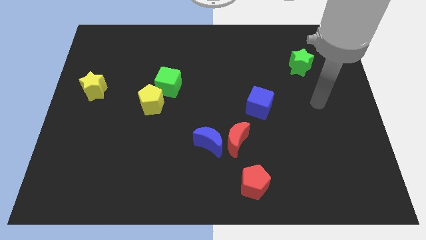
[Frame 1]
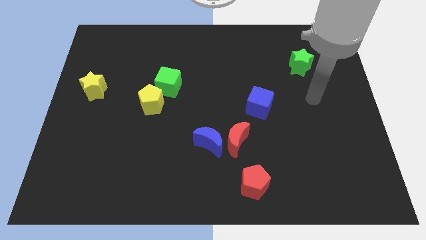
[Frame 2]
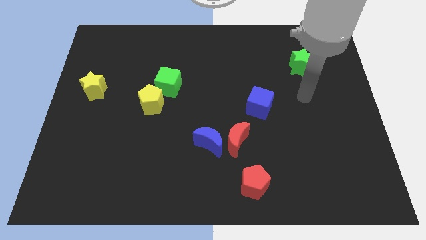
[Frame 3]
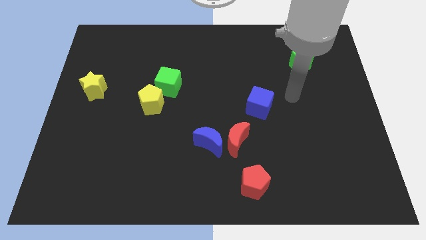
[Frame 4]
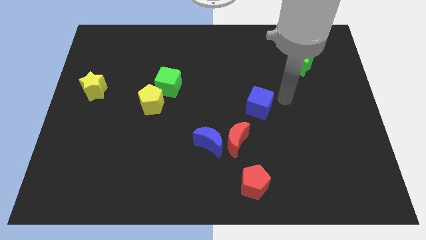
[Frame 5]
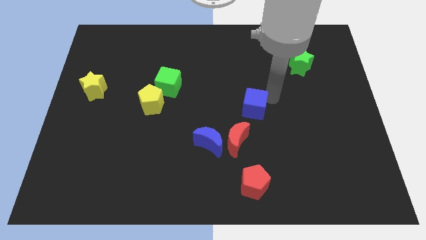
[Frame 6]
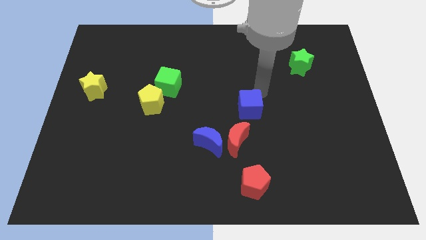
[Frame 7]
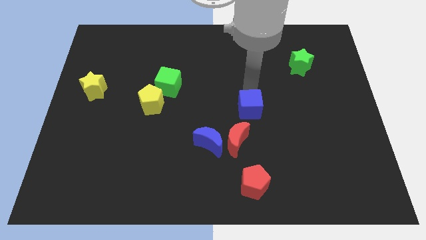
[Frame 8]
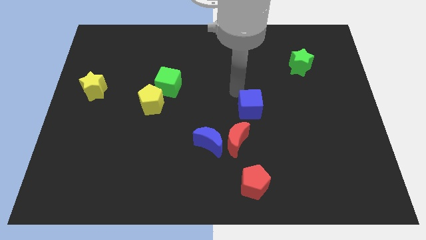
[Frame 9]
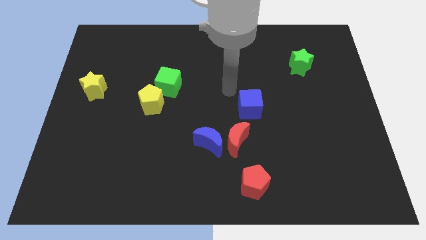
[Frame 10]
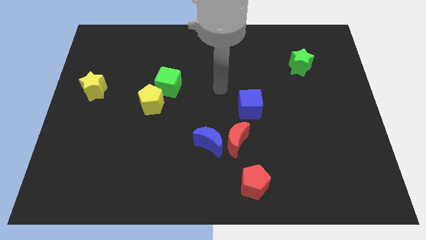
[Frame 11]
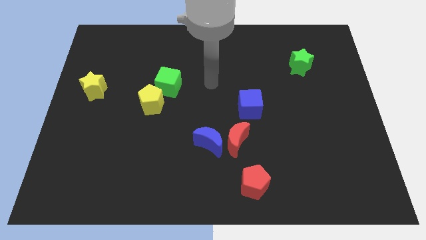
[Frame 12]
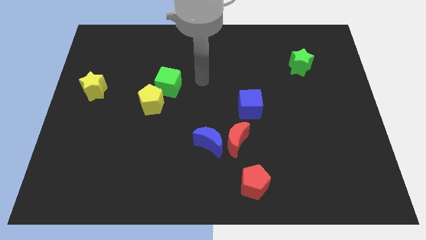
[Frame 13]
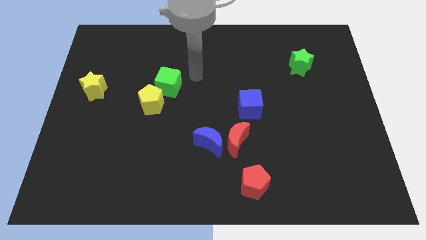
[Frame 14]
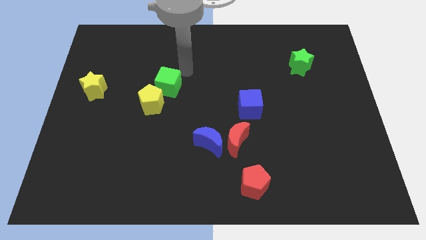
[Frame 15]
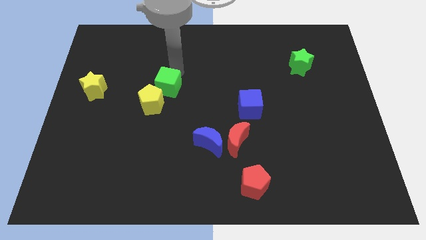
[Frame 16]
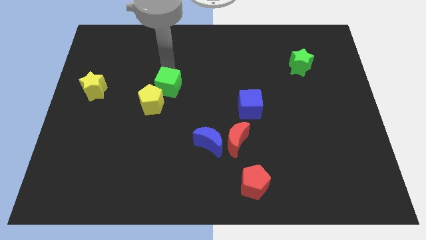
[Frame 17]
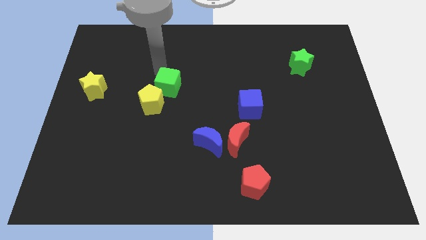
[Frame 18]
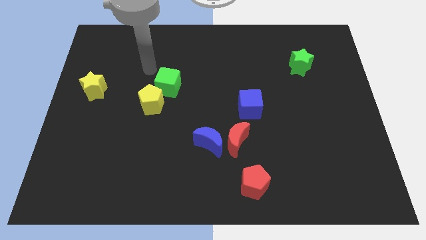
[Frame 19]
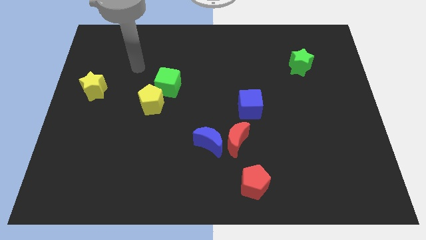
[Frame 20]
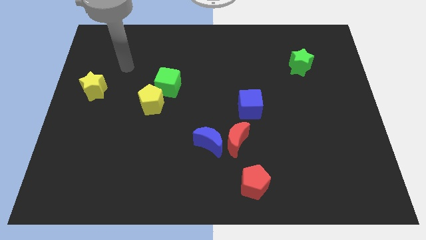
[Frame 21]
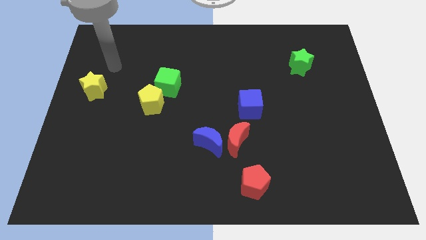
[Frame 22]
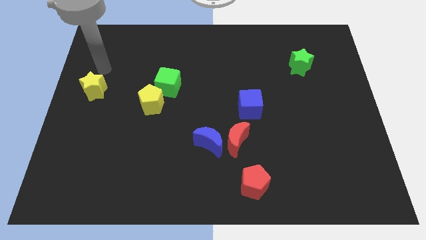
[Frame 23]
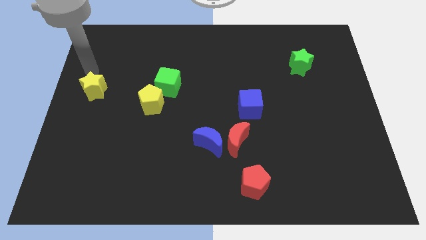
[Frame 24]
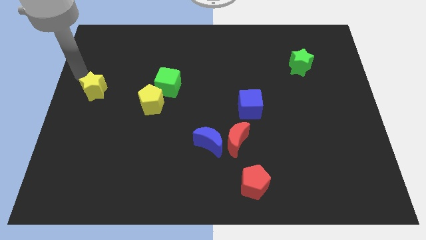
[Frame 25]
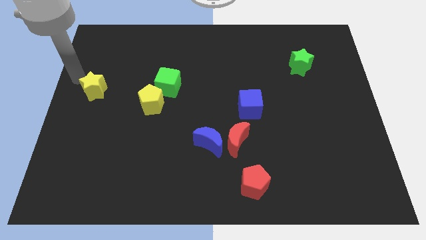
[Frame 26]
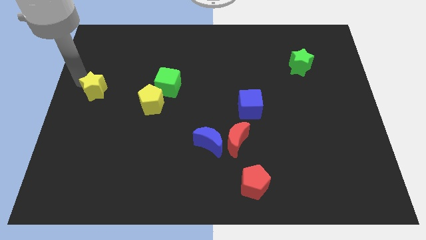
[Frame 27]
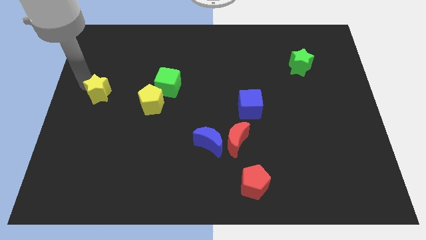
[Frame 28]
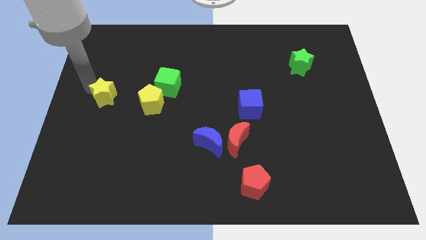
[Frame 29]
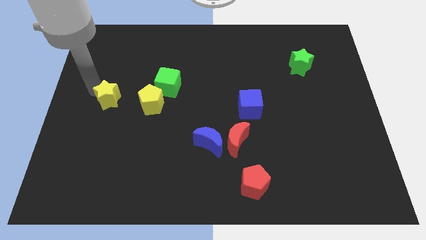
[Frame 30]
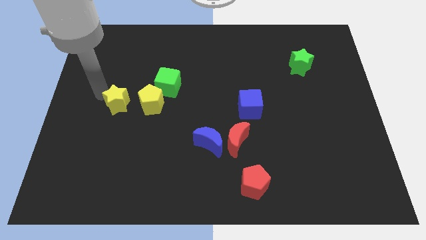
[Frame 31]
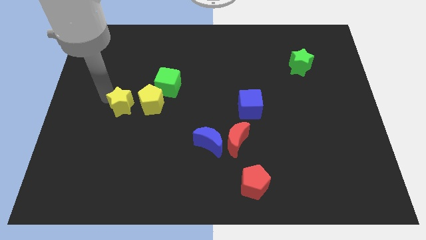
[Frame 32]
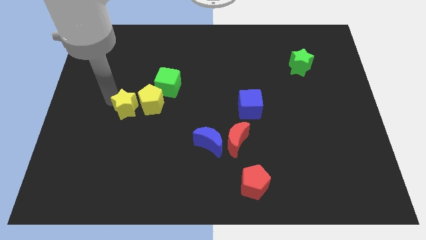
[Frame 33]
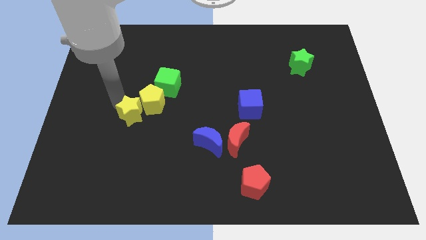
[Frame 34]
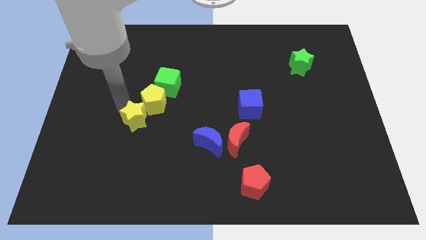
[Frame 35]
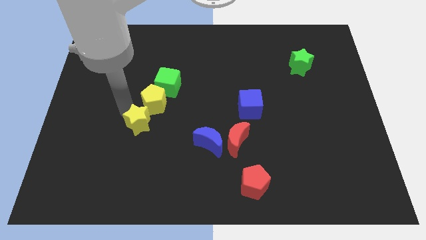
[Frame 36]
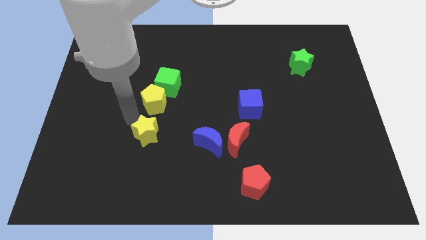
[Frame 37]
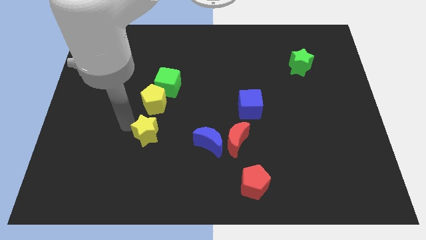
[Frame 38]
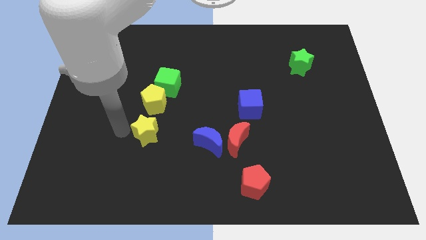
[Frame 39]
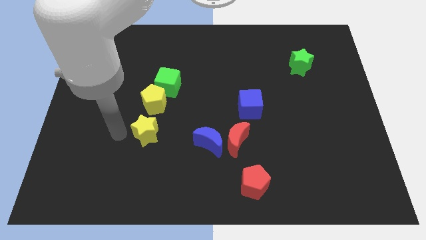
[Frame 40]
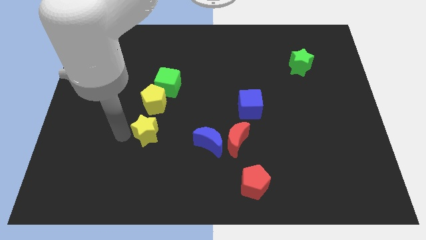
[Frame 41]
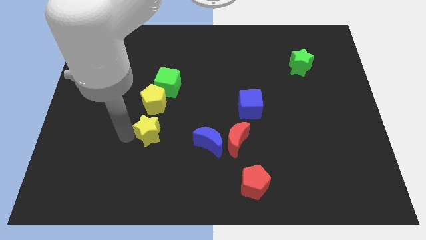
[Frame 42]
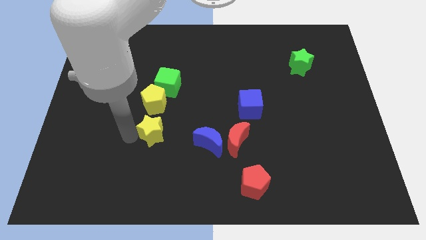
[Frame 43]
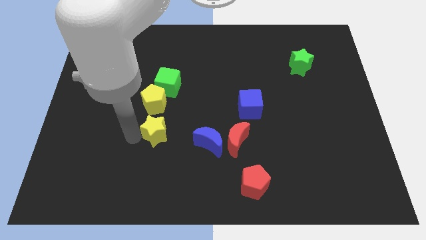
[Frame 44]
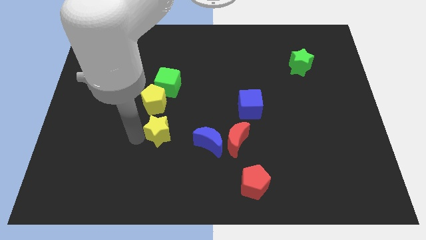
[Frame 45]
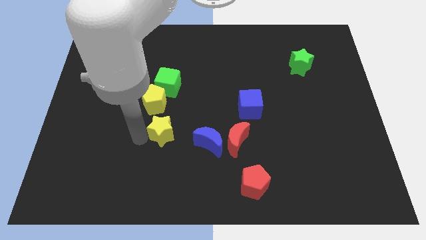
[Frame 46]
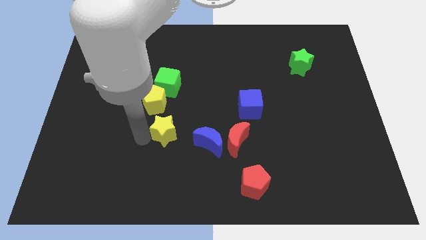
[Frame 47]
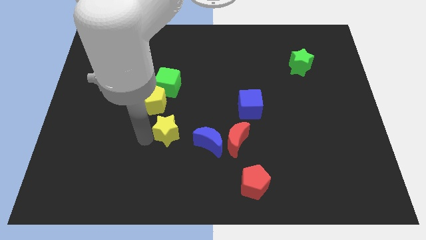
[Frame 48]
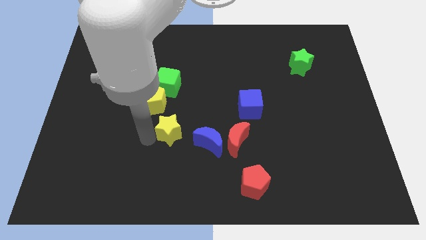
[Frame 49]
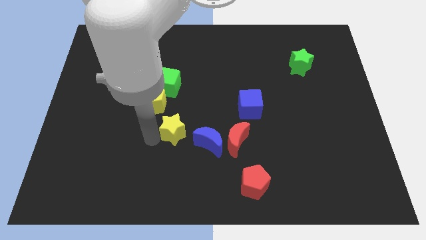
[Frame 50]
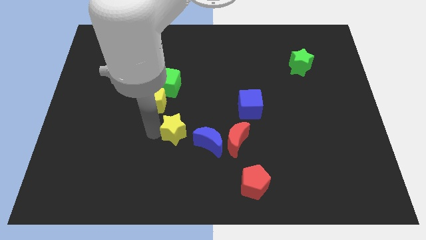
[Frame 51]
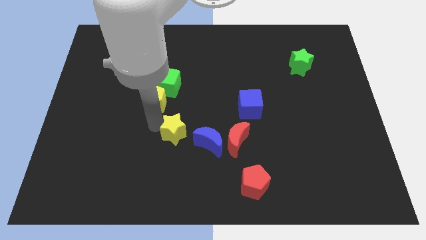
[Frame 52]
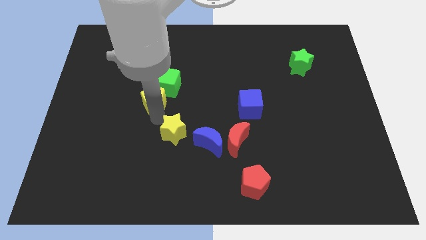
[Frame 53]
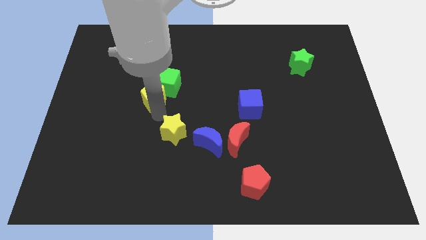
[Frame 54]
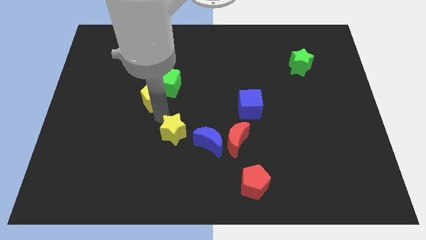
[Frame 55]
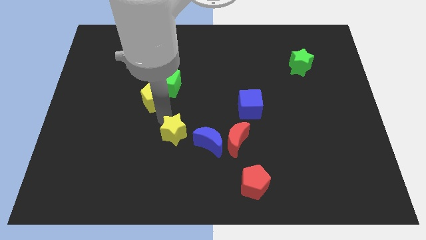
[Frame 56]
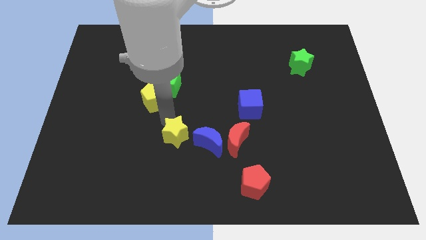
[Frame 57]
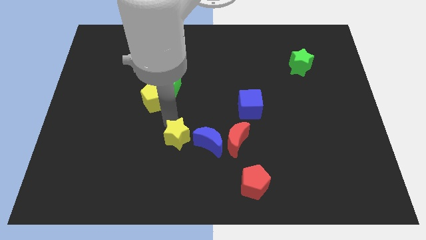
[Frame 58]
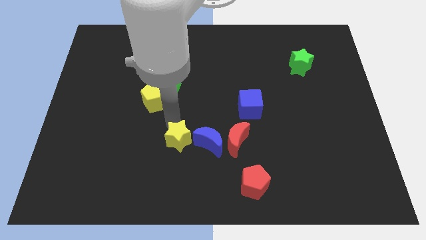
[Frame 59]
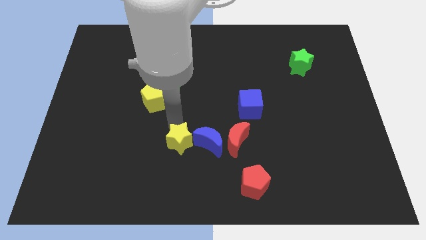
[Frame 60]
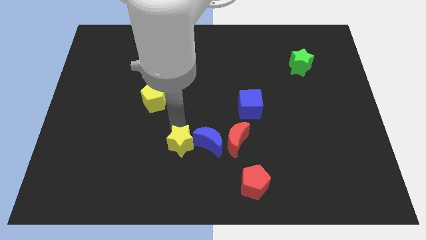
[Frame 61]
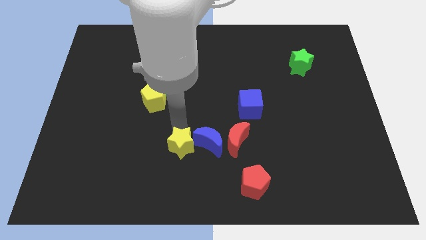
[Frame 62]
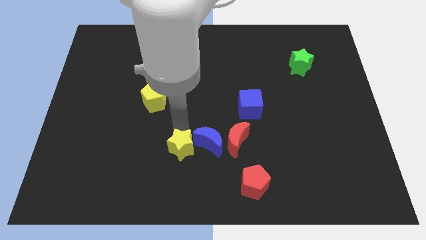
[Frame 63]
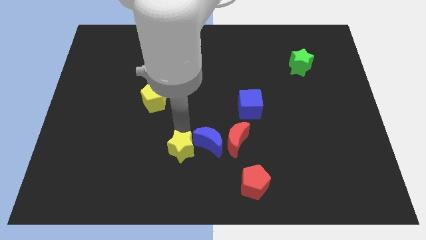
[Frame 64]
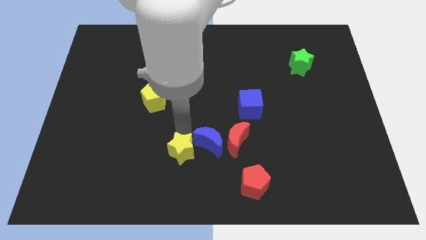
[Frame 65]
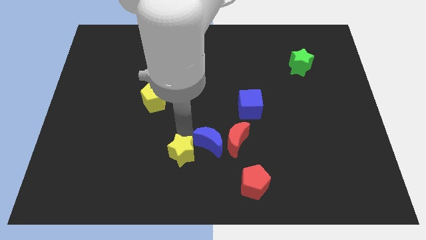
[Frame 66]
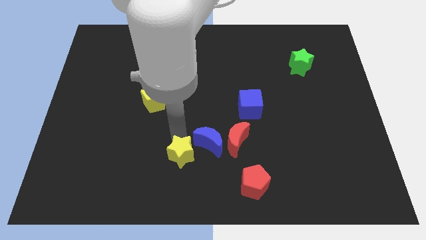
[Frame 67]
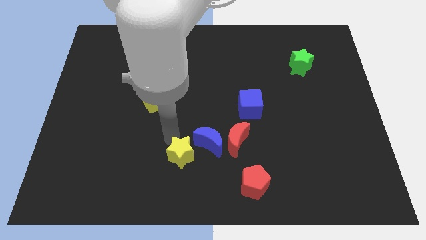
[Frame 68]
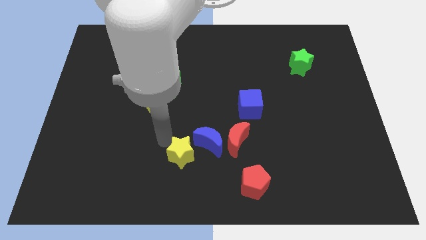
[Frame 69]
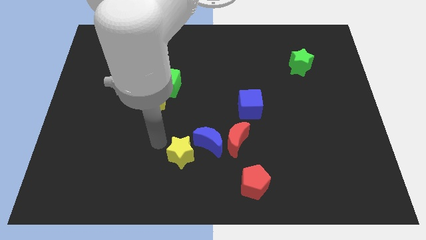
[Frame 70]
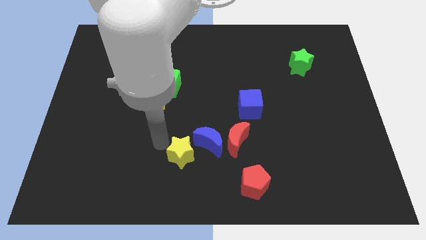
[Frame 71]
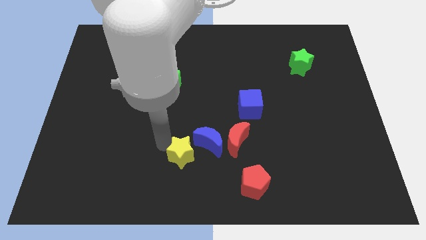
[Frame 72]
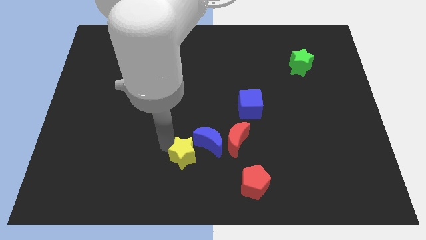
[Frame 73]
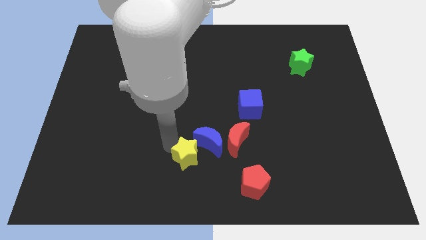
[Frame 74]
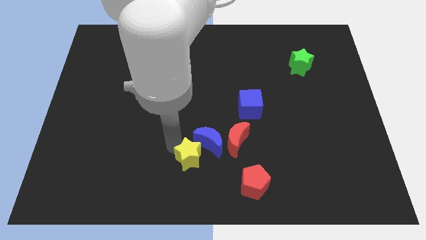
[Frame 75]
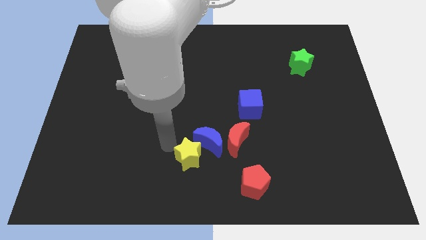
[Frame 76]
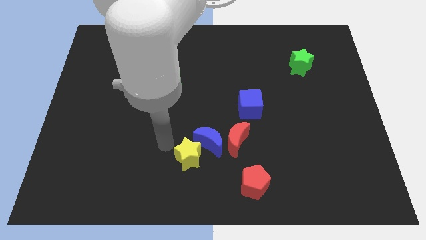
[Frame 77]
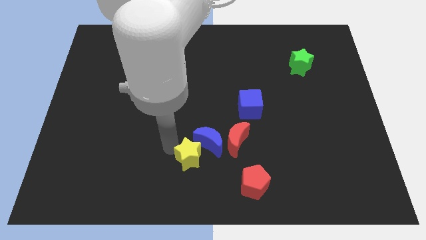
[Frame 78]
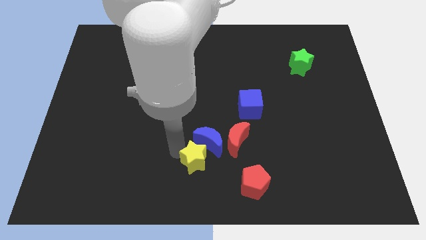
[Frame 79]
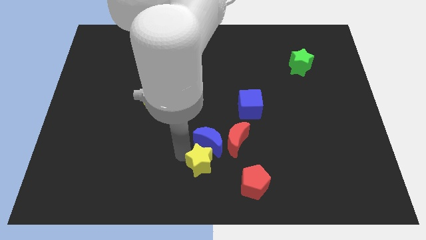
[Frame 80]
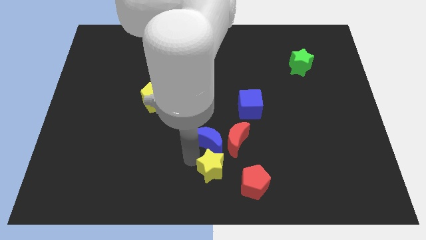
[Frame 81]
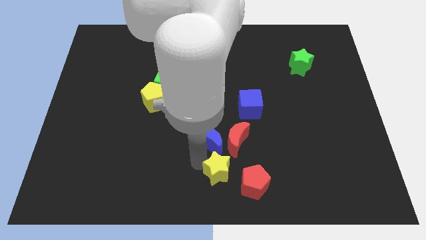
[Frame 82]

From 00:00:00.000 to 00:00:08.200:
push the yellow star to the bottom side of the red moon
